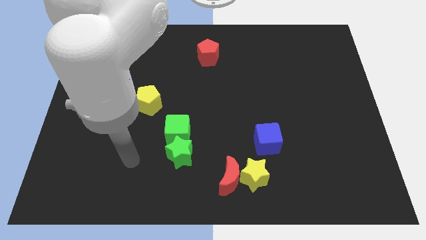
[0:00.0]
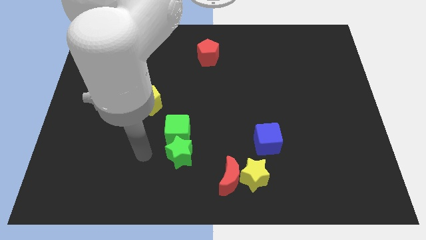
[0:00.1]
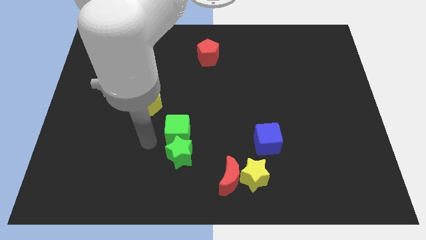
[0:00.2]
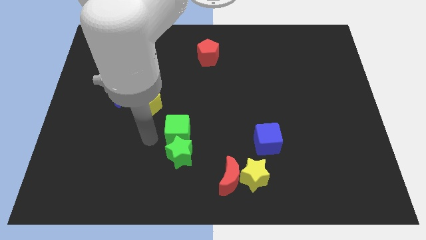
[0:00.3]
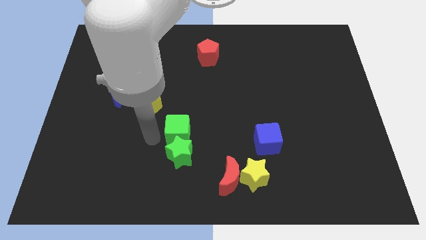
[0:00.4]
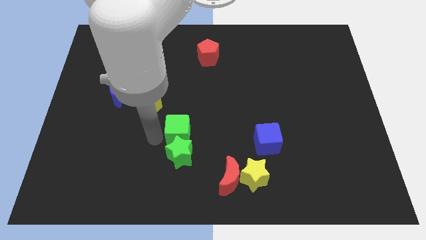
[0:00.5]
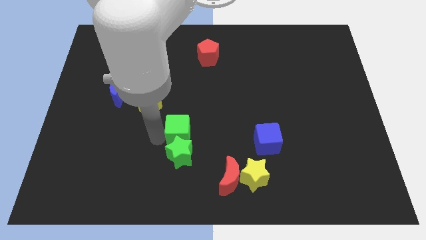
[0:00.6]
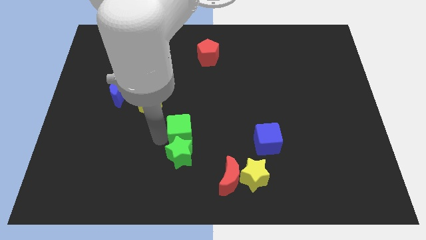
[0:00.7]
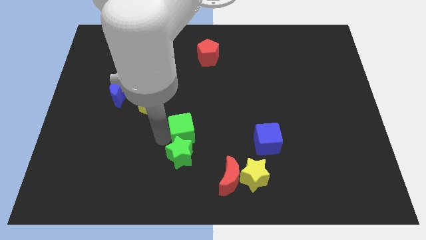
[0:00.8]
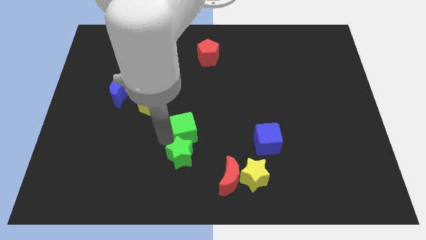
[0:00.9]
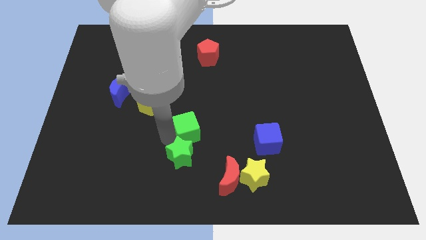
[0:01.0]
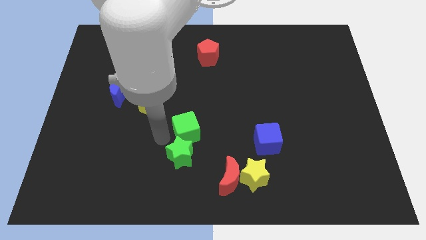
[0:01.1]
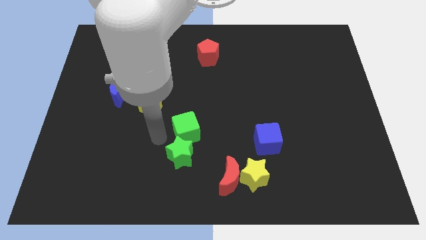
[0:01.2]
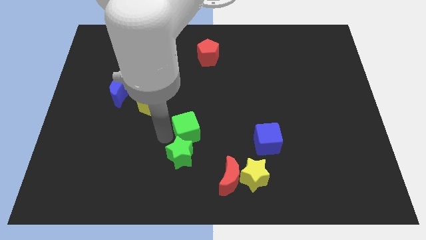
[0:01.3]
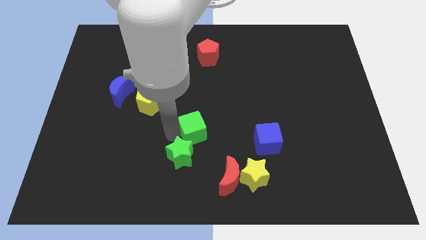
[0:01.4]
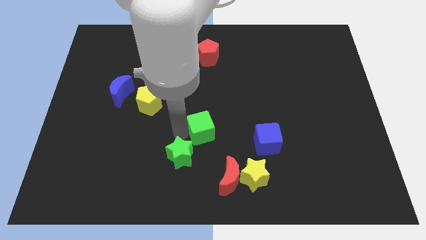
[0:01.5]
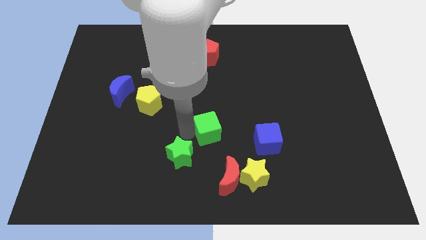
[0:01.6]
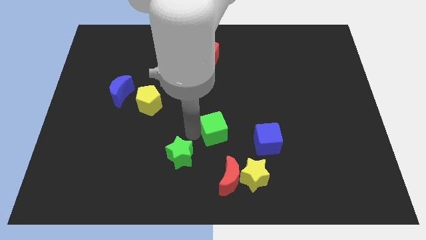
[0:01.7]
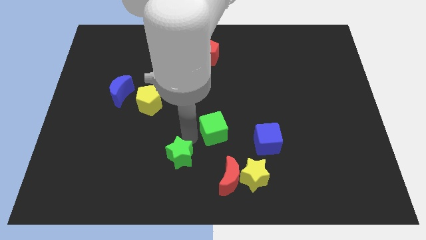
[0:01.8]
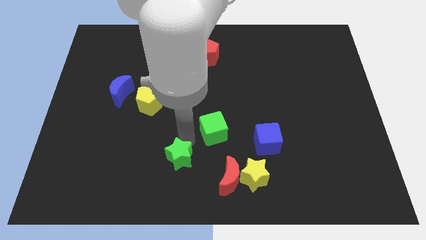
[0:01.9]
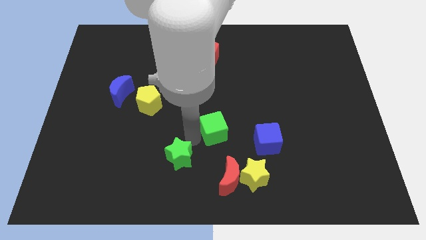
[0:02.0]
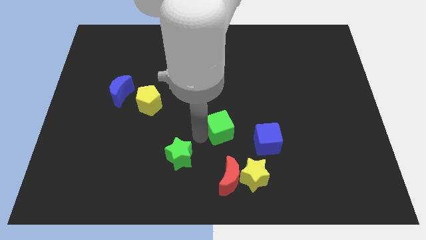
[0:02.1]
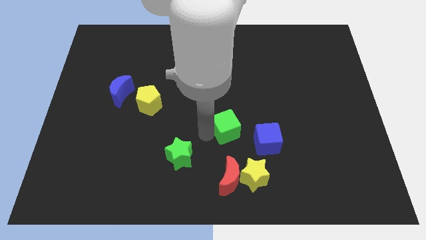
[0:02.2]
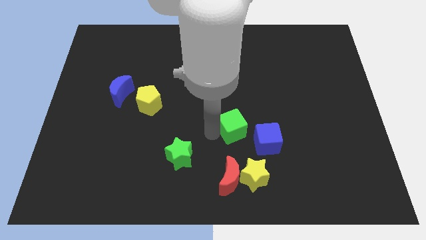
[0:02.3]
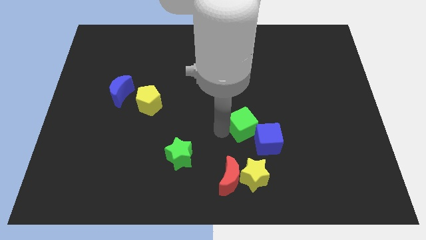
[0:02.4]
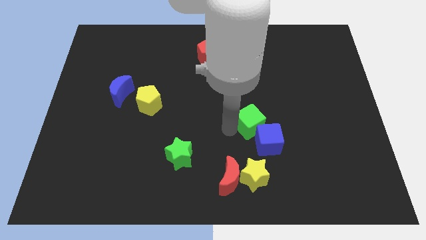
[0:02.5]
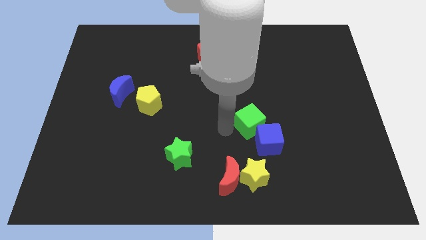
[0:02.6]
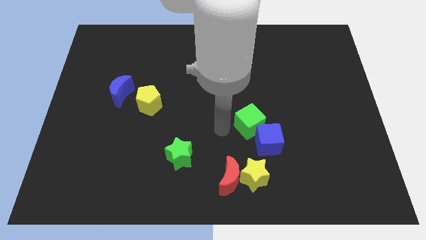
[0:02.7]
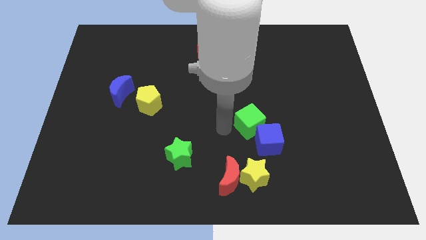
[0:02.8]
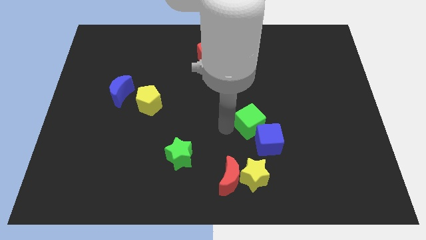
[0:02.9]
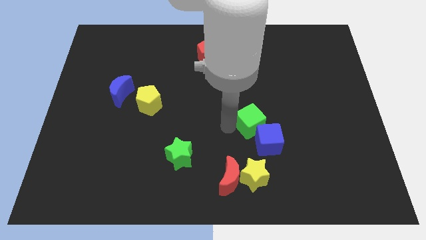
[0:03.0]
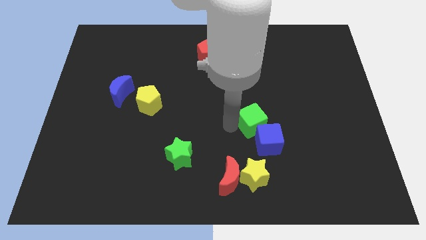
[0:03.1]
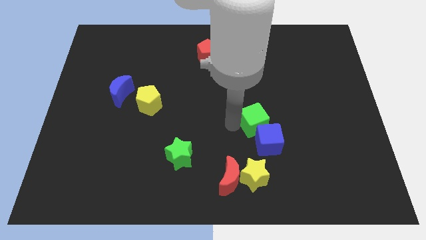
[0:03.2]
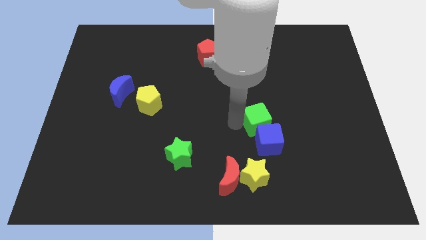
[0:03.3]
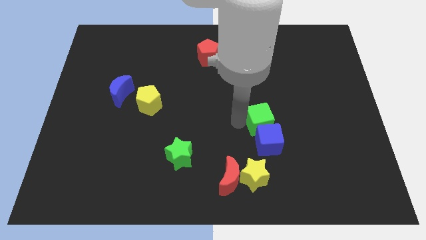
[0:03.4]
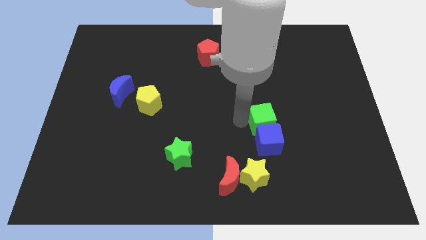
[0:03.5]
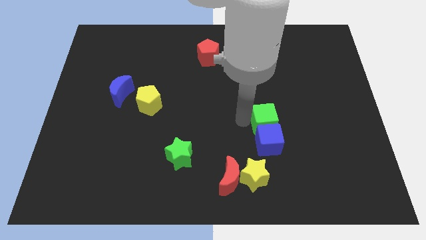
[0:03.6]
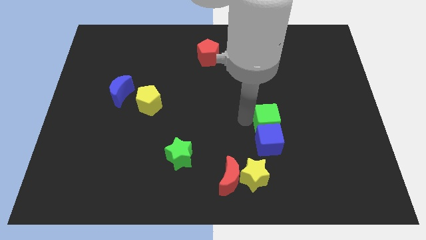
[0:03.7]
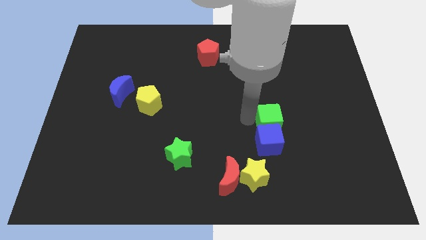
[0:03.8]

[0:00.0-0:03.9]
push the green cube right

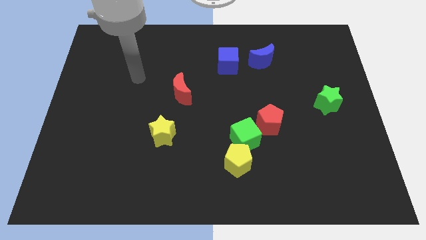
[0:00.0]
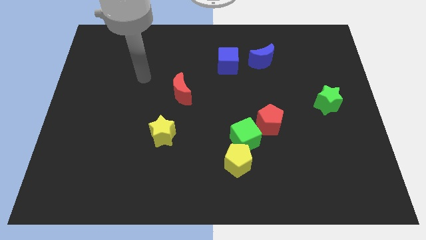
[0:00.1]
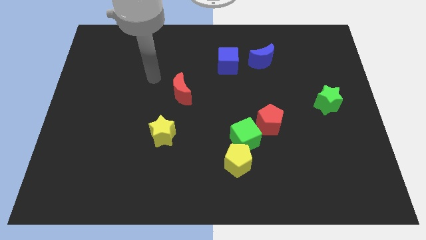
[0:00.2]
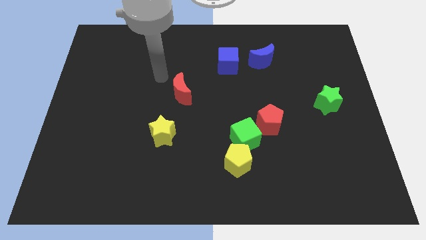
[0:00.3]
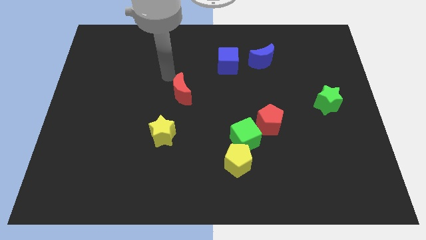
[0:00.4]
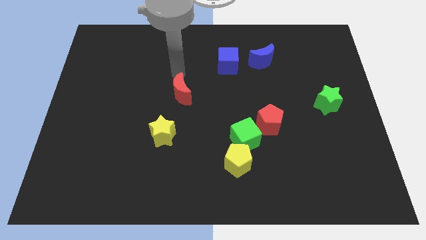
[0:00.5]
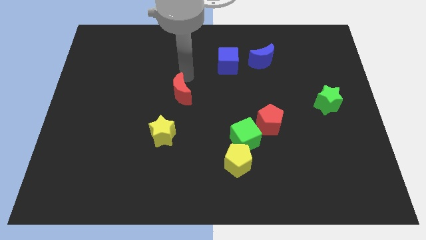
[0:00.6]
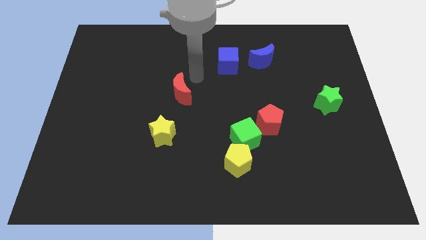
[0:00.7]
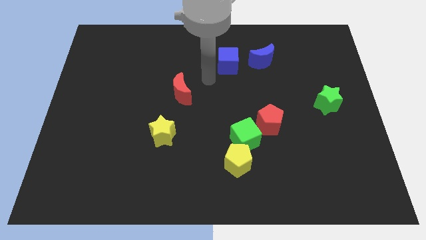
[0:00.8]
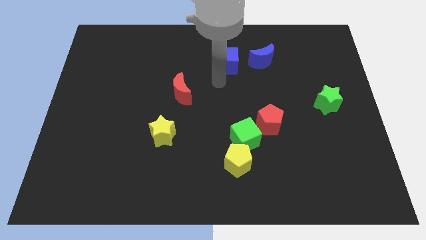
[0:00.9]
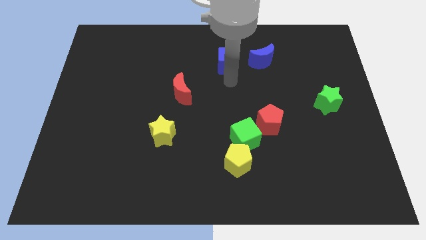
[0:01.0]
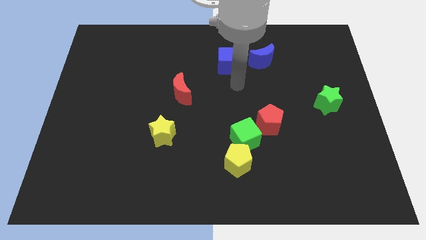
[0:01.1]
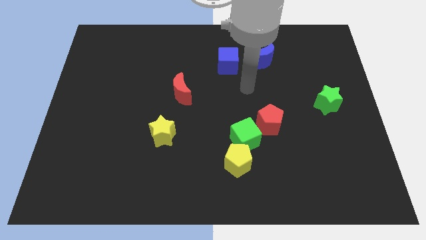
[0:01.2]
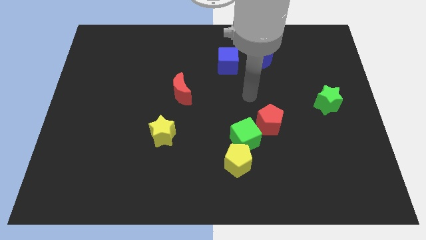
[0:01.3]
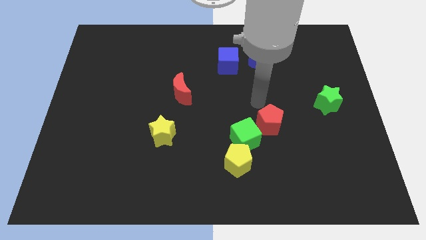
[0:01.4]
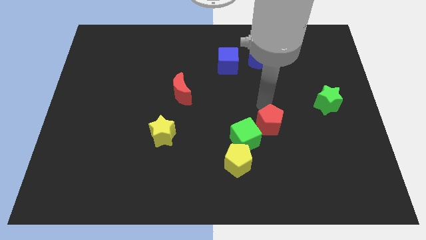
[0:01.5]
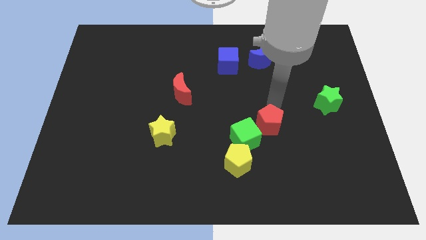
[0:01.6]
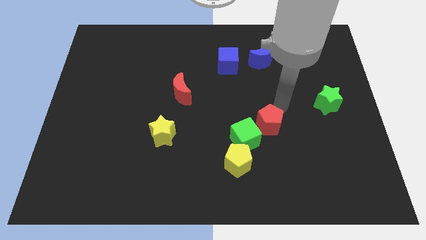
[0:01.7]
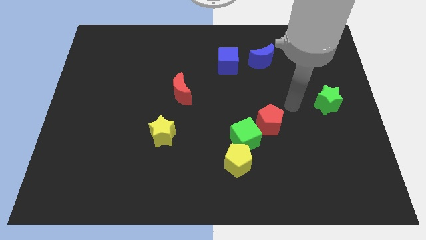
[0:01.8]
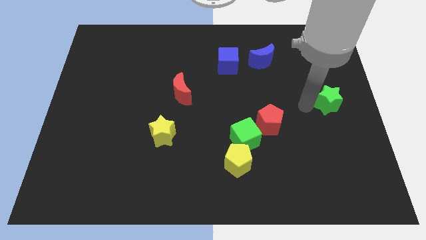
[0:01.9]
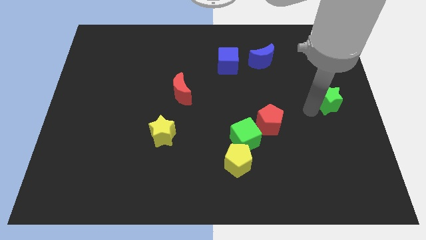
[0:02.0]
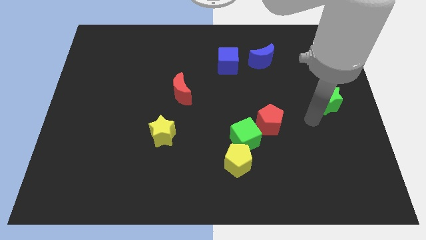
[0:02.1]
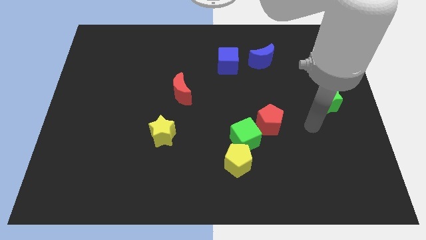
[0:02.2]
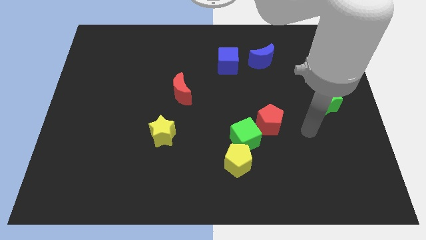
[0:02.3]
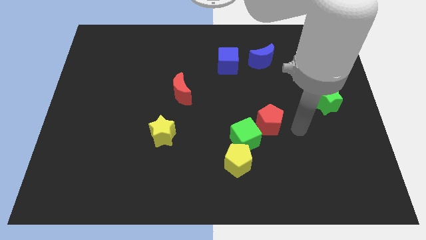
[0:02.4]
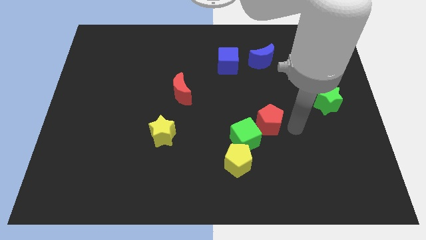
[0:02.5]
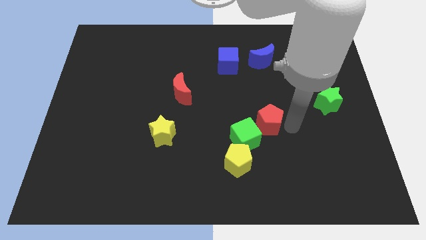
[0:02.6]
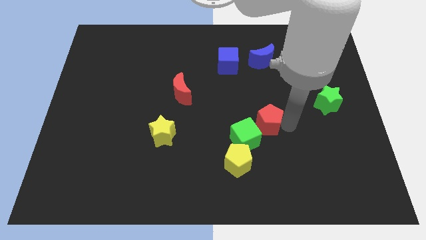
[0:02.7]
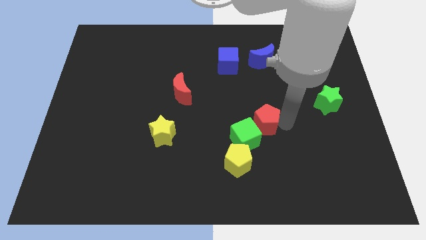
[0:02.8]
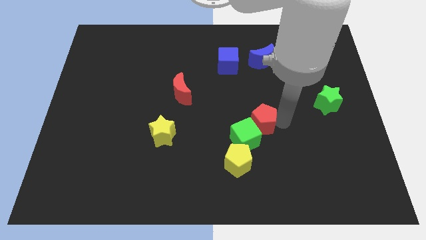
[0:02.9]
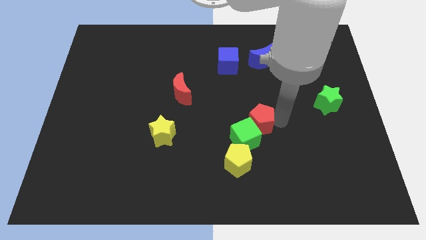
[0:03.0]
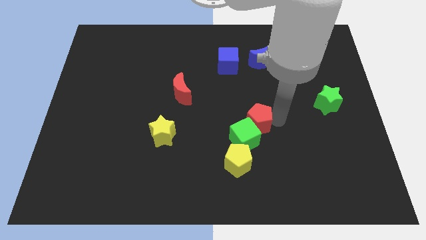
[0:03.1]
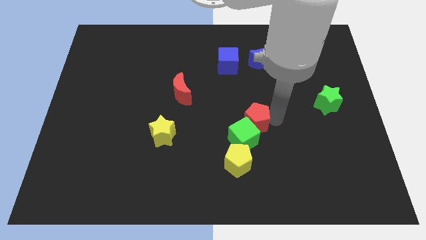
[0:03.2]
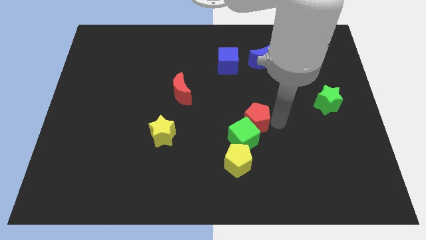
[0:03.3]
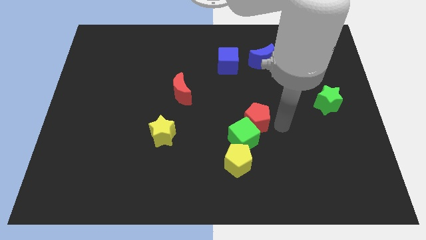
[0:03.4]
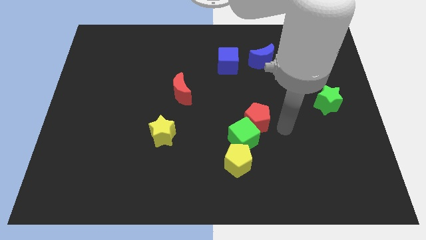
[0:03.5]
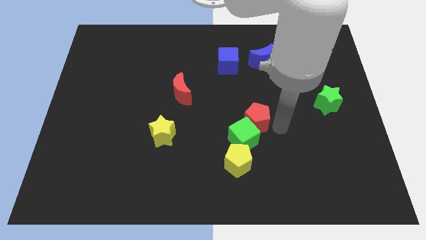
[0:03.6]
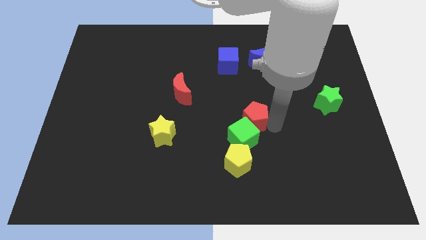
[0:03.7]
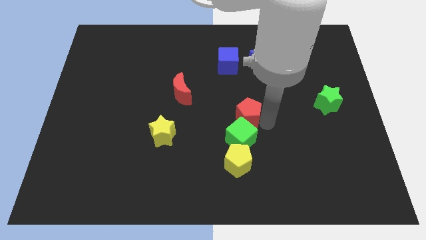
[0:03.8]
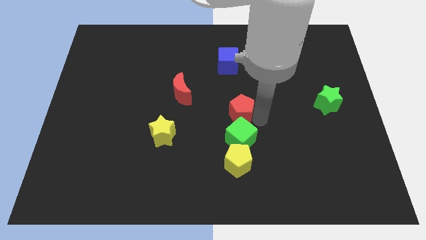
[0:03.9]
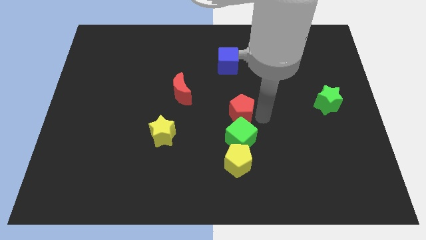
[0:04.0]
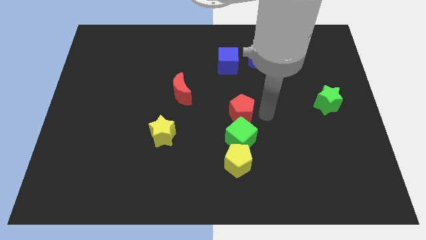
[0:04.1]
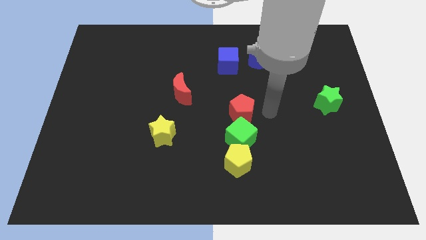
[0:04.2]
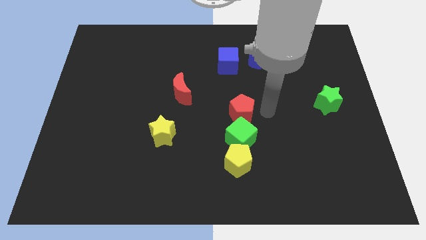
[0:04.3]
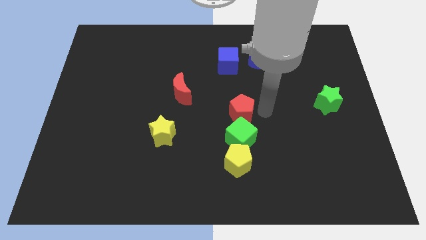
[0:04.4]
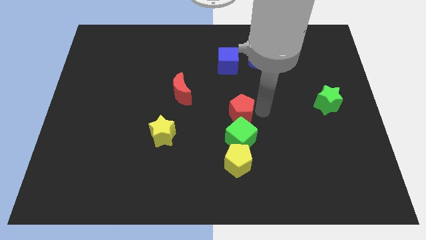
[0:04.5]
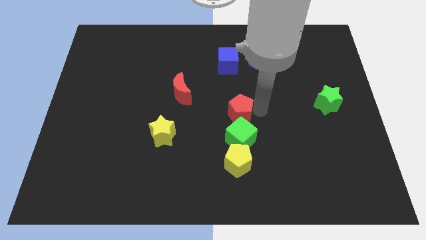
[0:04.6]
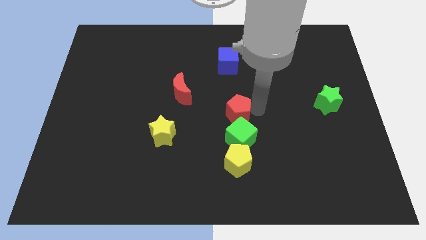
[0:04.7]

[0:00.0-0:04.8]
slightly slide the red pentagon left
